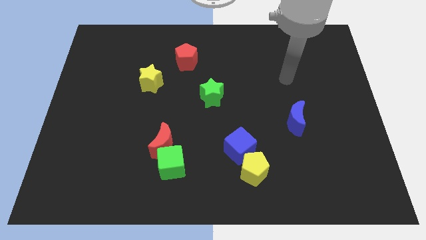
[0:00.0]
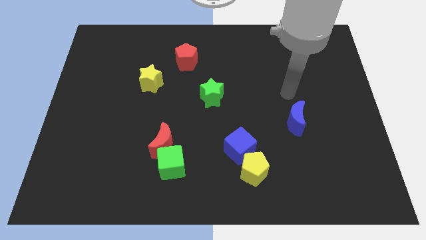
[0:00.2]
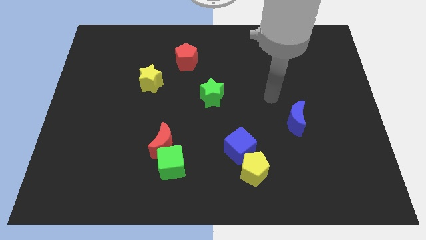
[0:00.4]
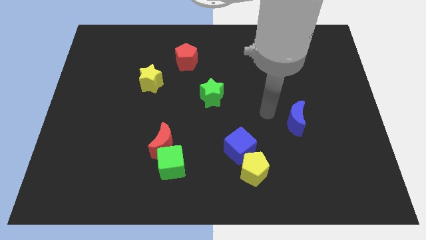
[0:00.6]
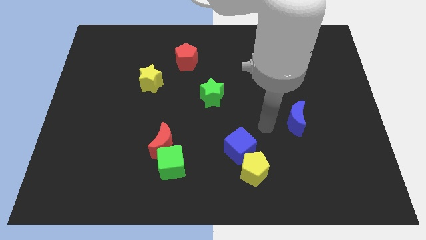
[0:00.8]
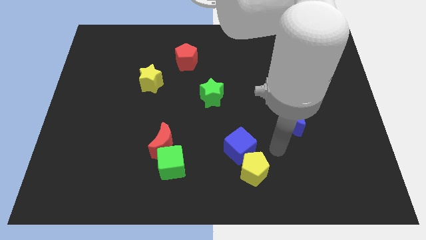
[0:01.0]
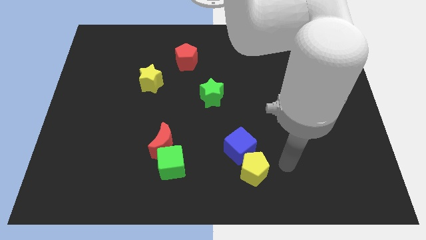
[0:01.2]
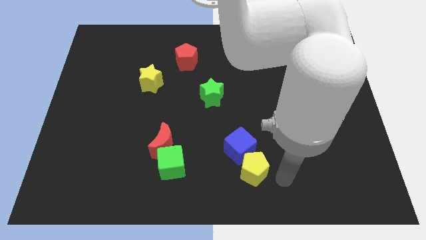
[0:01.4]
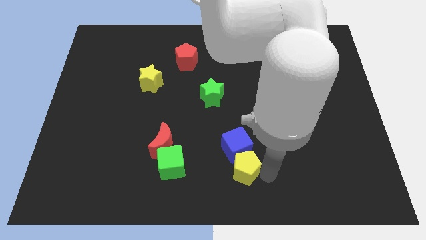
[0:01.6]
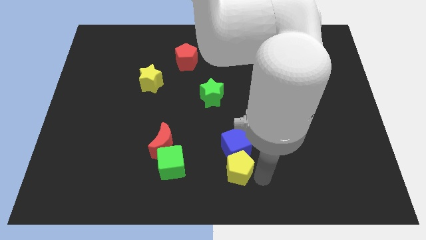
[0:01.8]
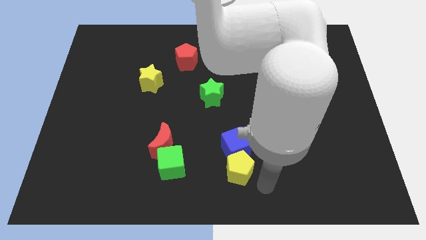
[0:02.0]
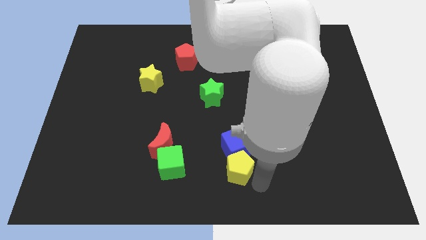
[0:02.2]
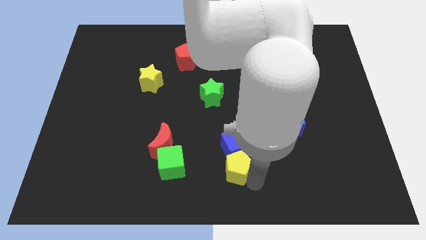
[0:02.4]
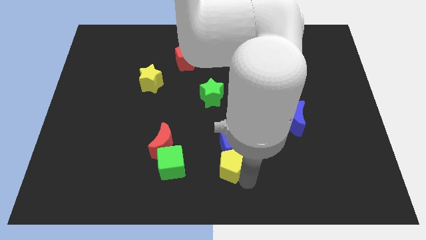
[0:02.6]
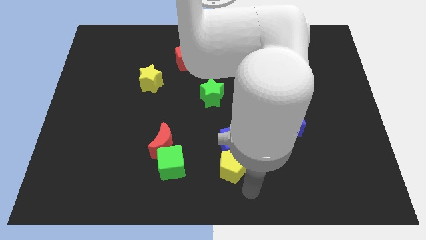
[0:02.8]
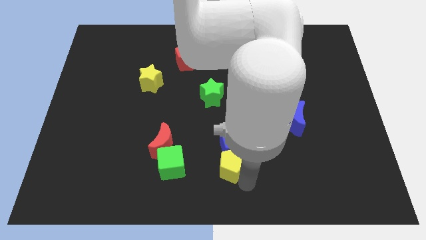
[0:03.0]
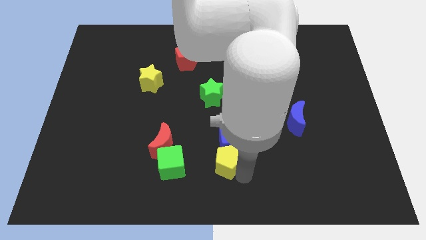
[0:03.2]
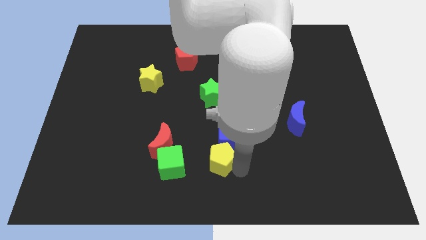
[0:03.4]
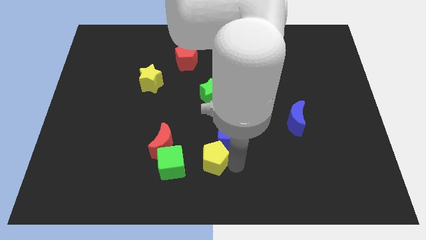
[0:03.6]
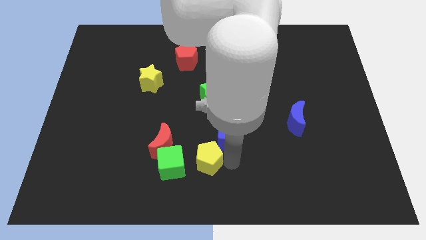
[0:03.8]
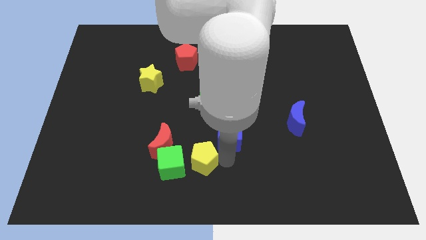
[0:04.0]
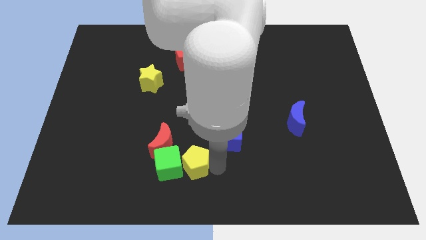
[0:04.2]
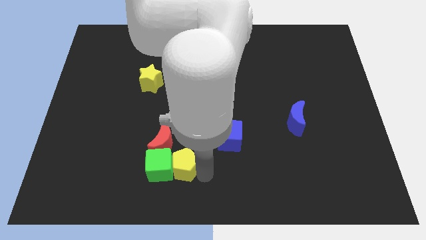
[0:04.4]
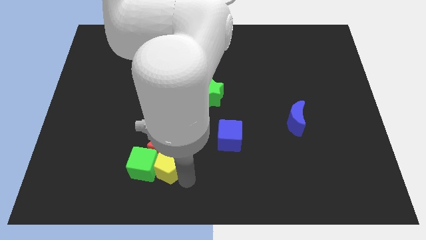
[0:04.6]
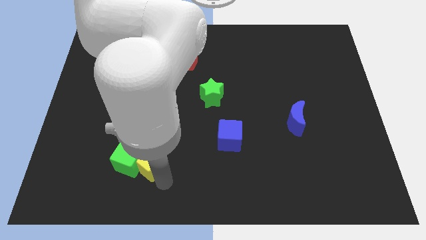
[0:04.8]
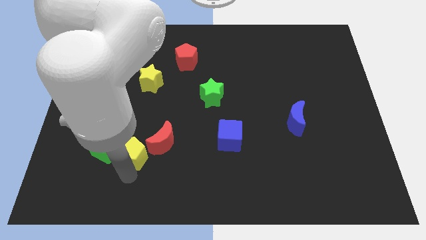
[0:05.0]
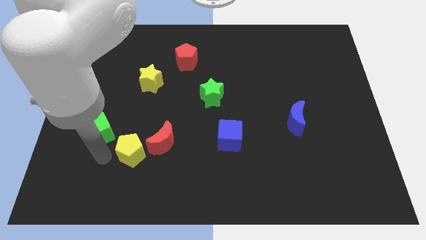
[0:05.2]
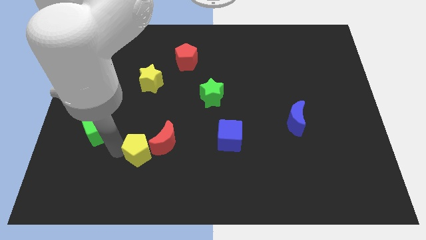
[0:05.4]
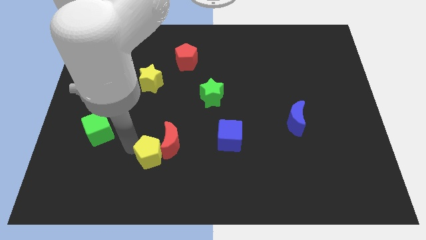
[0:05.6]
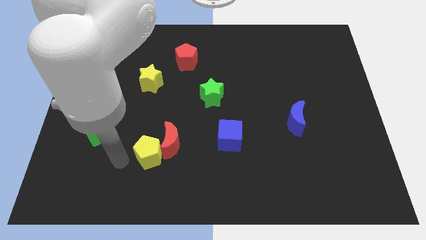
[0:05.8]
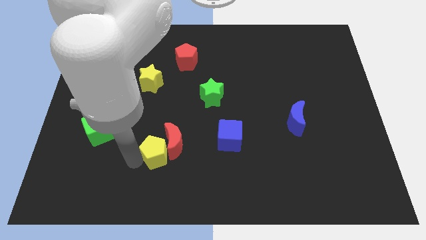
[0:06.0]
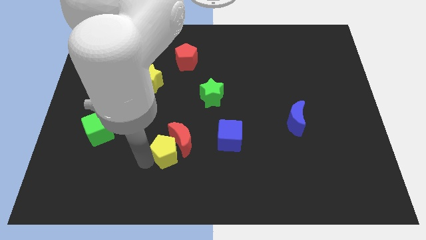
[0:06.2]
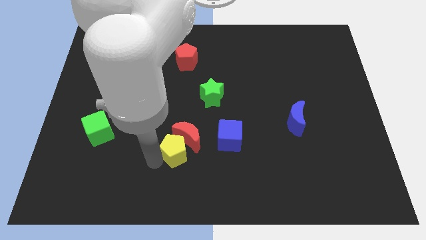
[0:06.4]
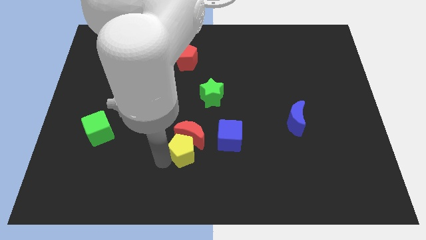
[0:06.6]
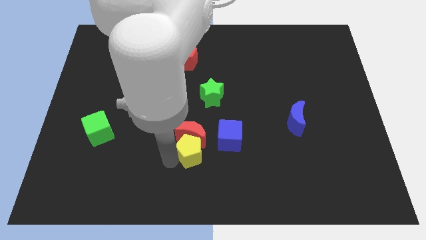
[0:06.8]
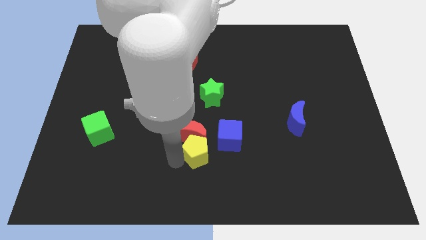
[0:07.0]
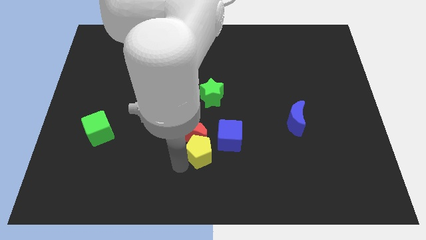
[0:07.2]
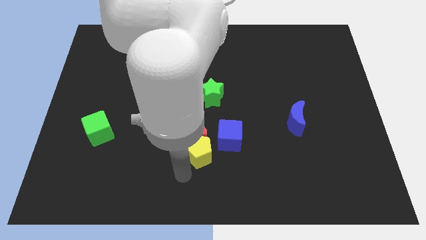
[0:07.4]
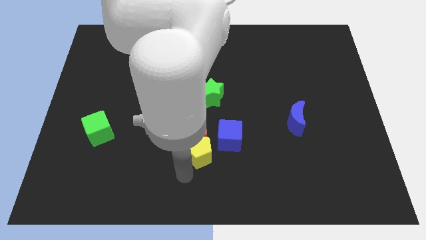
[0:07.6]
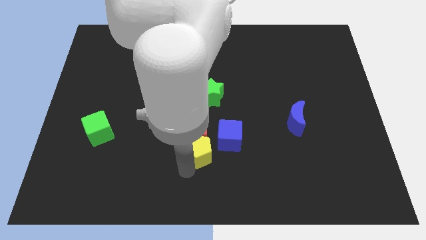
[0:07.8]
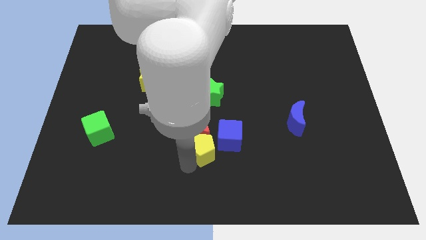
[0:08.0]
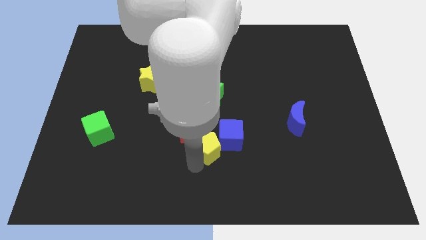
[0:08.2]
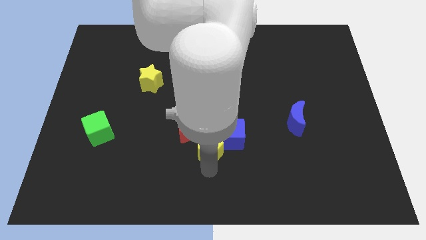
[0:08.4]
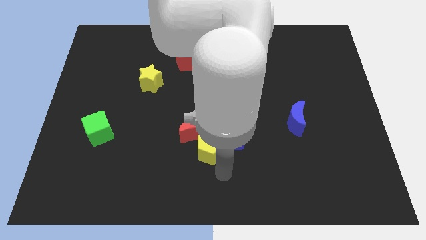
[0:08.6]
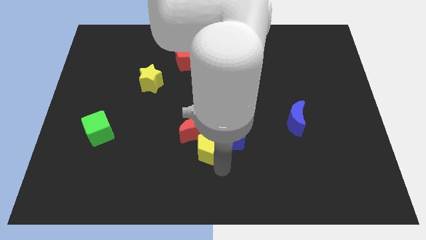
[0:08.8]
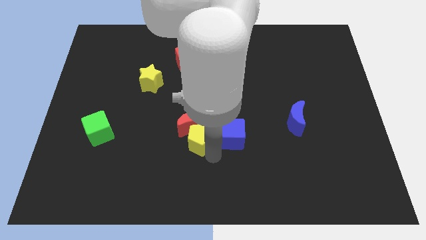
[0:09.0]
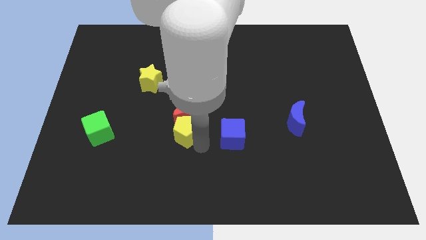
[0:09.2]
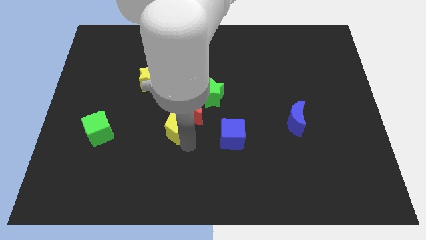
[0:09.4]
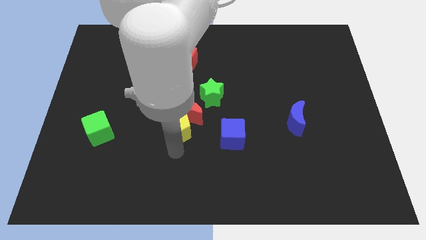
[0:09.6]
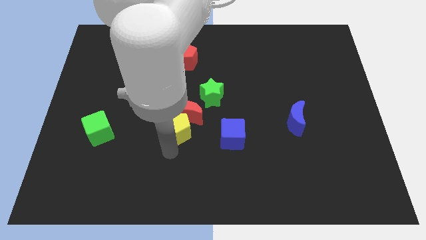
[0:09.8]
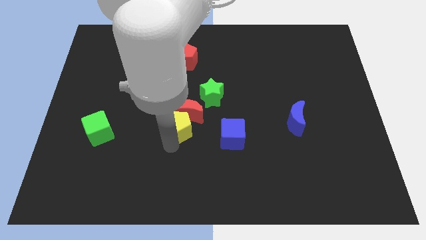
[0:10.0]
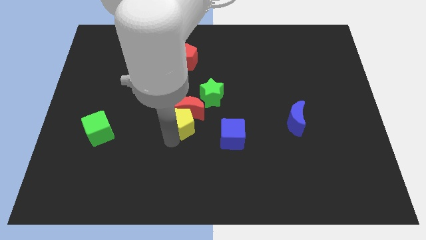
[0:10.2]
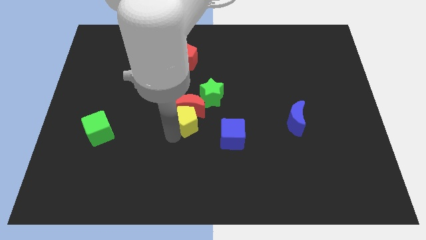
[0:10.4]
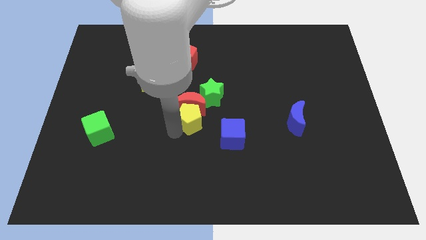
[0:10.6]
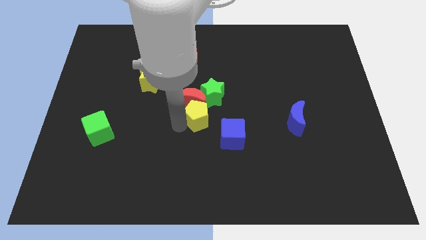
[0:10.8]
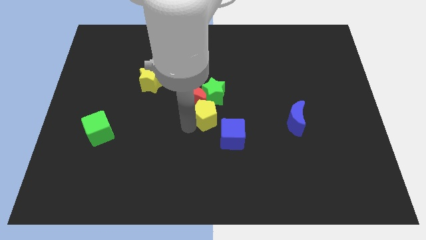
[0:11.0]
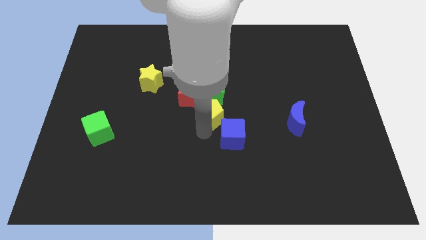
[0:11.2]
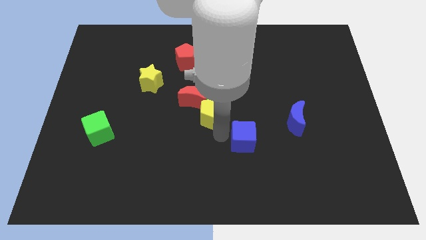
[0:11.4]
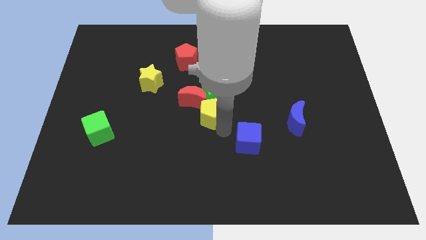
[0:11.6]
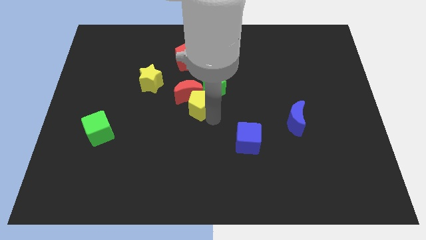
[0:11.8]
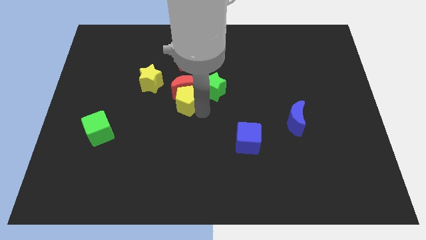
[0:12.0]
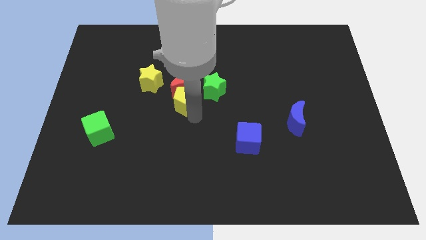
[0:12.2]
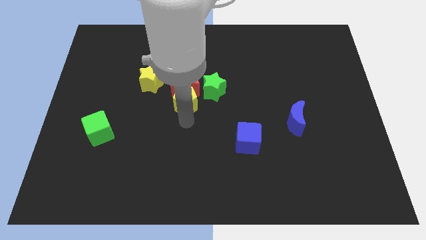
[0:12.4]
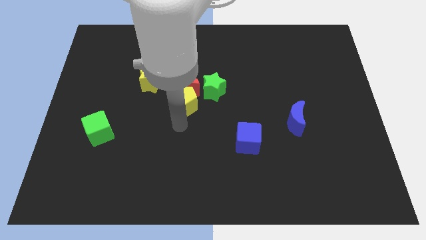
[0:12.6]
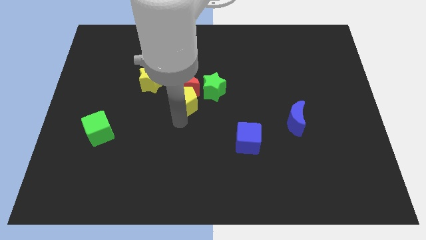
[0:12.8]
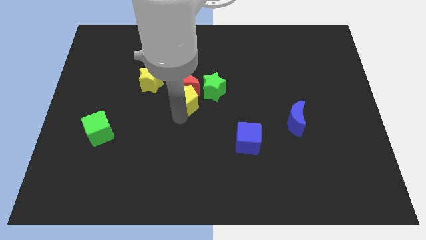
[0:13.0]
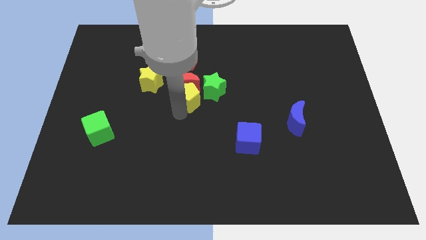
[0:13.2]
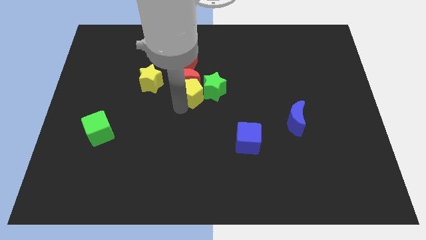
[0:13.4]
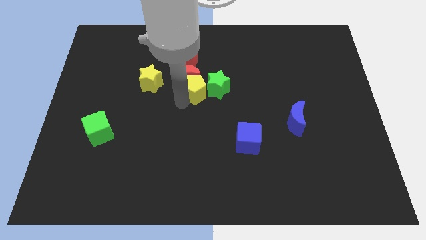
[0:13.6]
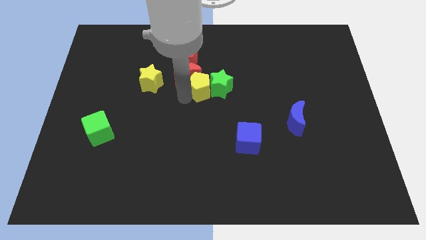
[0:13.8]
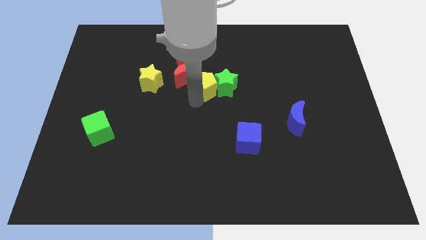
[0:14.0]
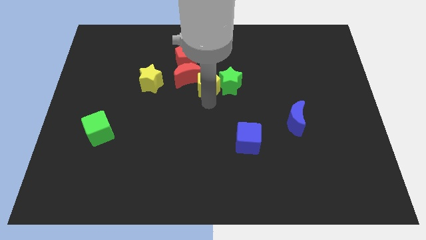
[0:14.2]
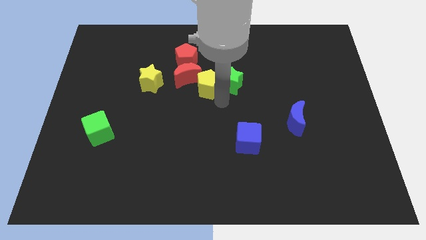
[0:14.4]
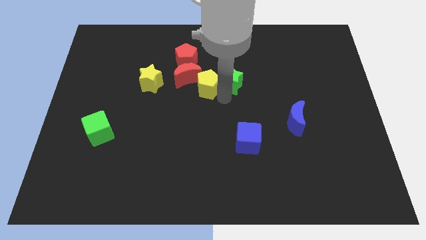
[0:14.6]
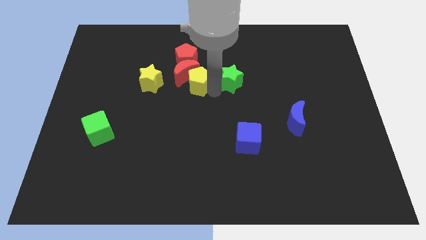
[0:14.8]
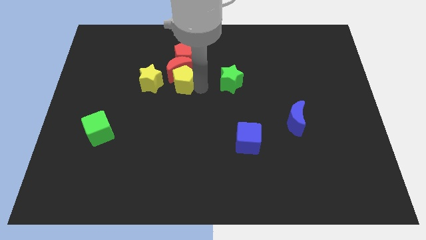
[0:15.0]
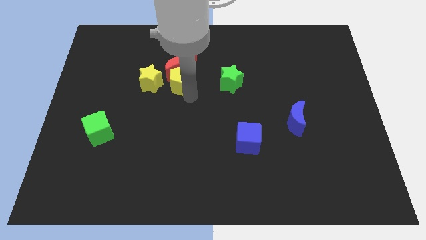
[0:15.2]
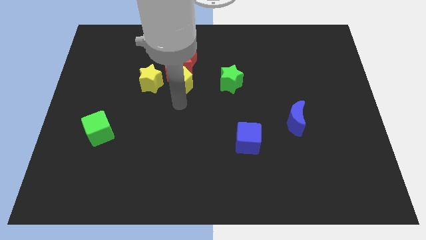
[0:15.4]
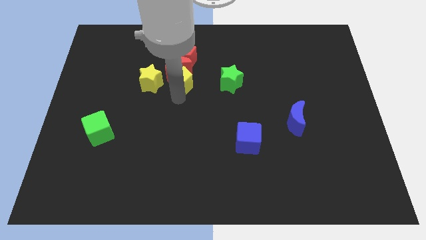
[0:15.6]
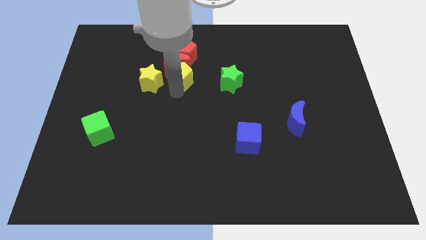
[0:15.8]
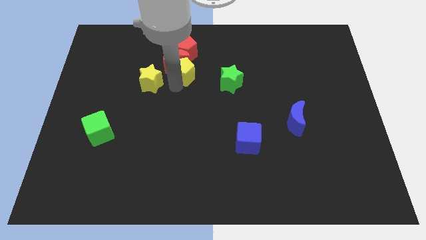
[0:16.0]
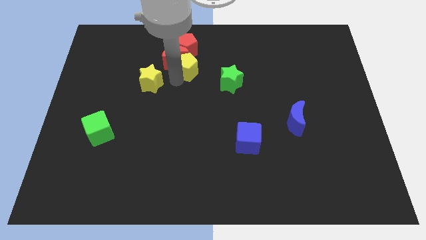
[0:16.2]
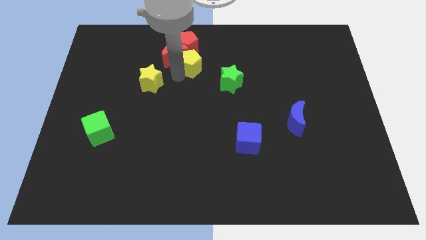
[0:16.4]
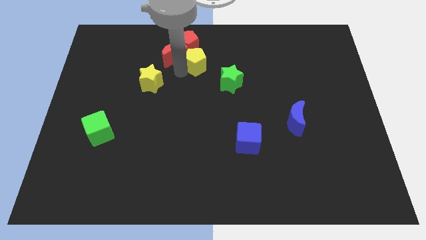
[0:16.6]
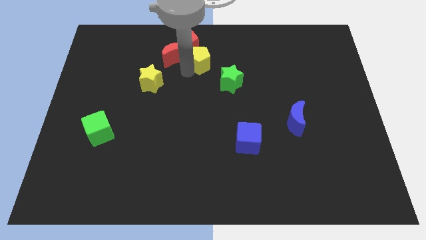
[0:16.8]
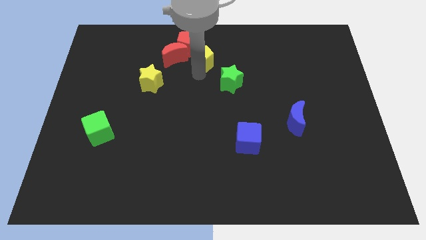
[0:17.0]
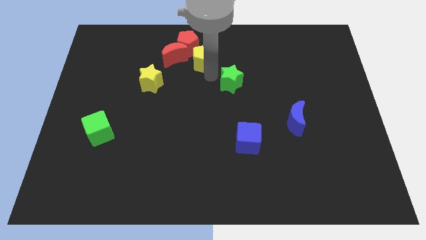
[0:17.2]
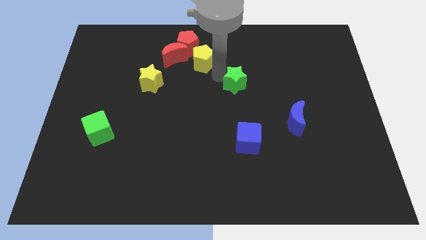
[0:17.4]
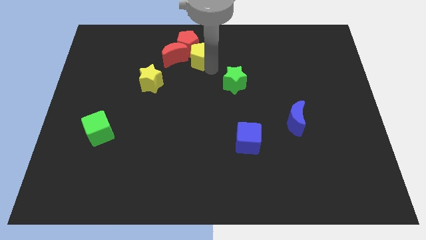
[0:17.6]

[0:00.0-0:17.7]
move the yellow pentagon next to the red pentagon
